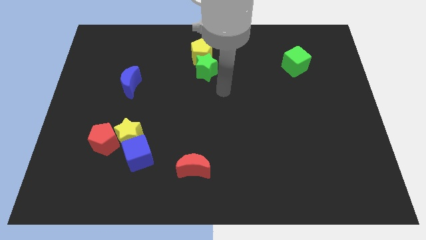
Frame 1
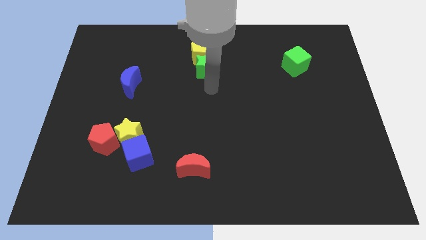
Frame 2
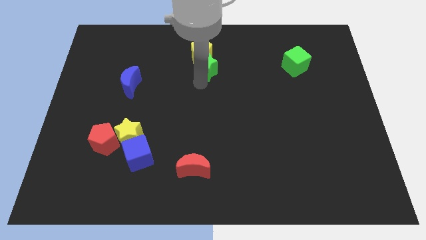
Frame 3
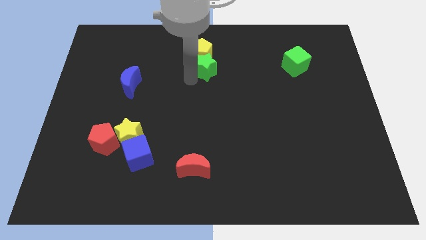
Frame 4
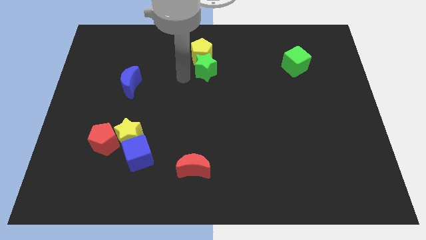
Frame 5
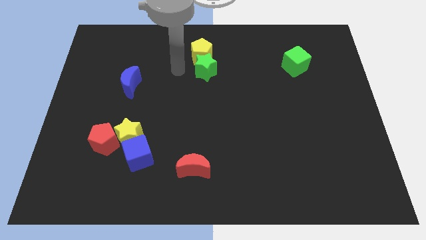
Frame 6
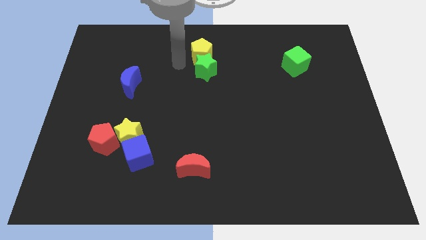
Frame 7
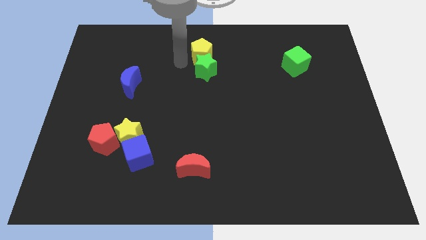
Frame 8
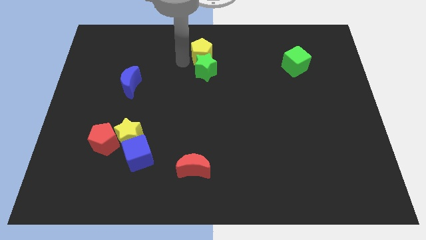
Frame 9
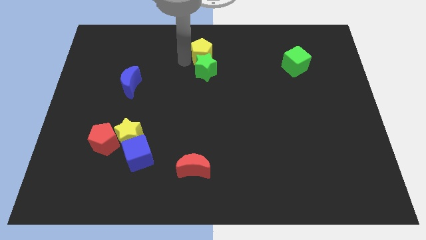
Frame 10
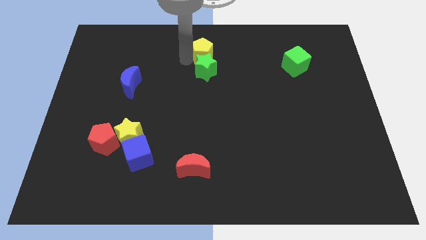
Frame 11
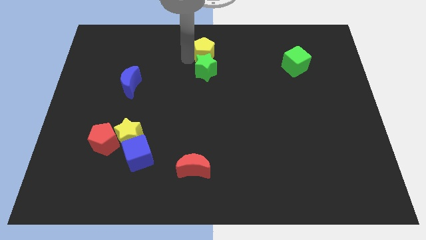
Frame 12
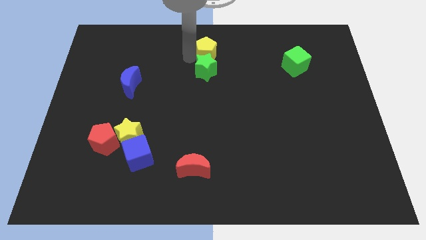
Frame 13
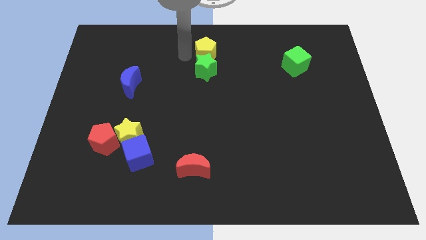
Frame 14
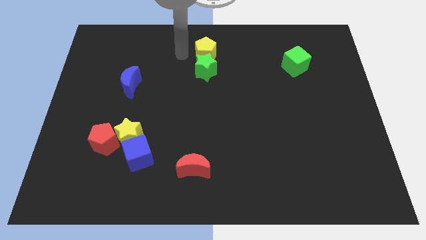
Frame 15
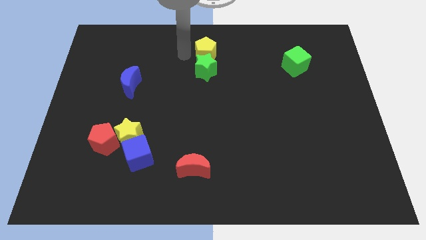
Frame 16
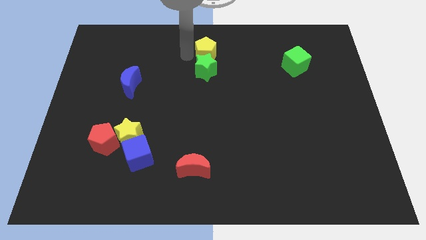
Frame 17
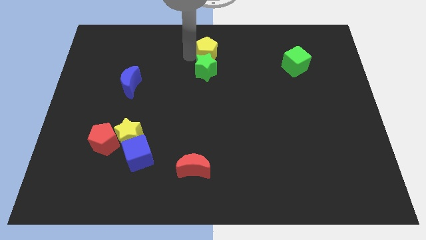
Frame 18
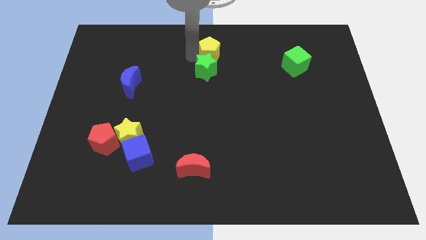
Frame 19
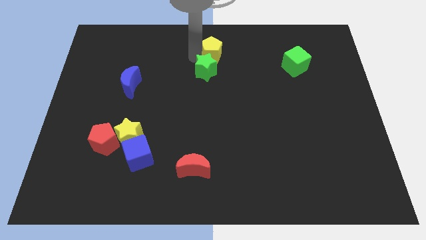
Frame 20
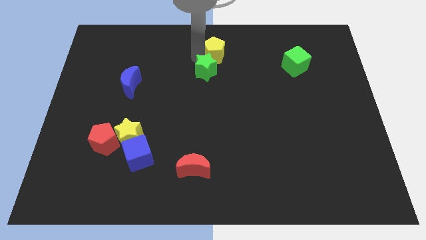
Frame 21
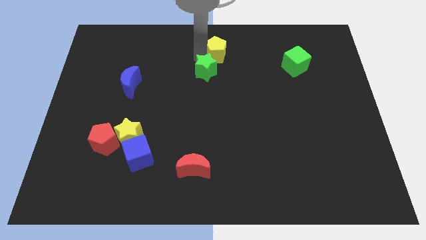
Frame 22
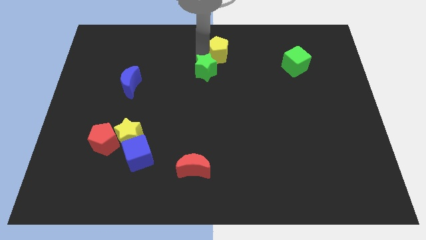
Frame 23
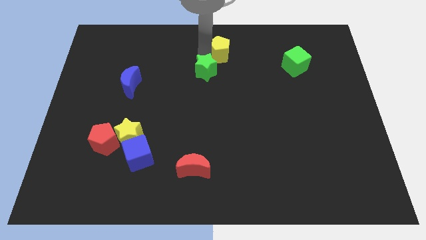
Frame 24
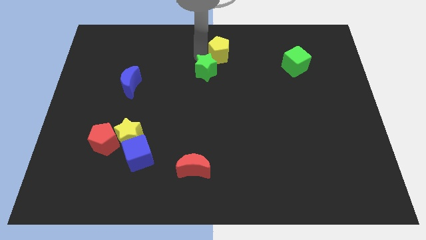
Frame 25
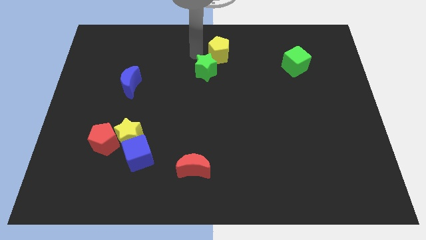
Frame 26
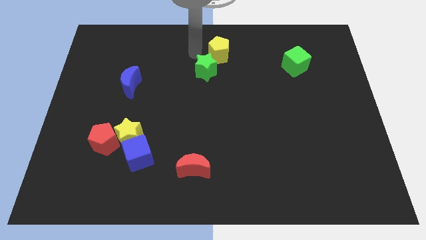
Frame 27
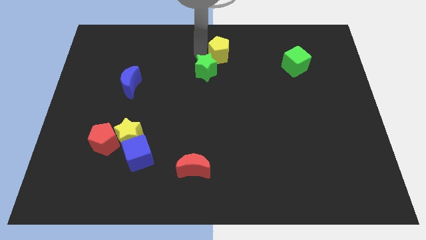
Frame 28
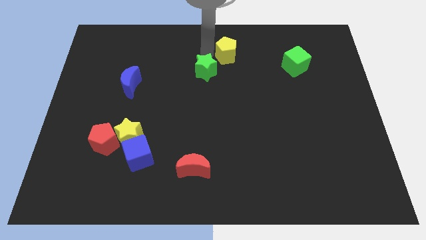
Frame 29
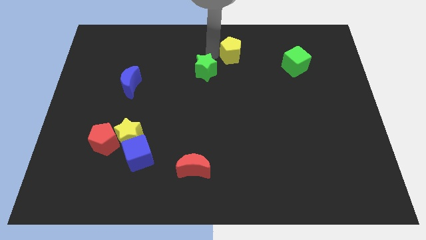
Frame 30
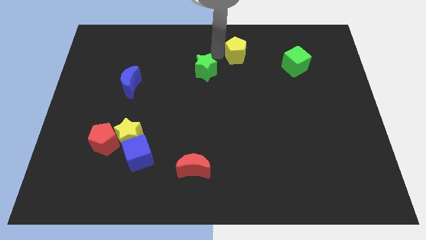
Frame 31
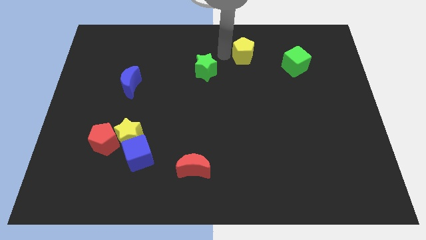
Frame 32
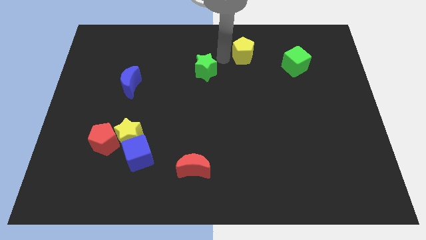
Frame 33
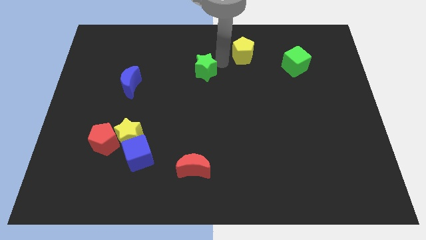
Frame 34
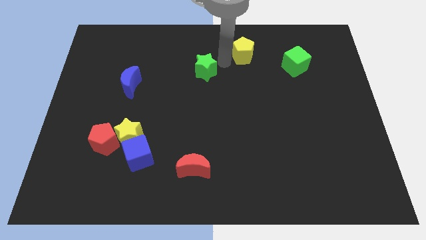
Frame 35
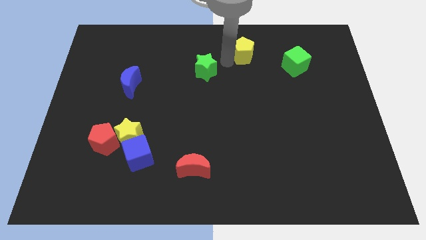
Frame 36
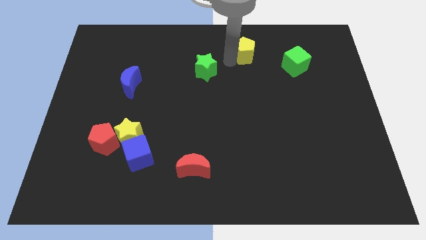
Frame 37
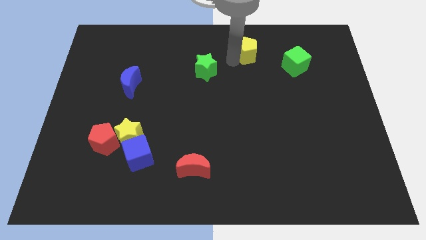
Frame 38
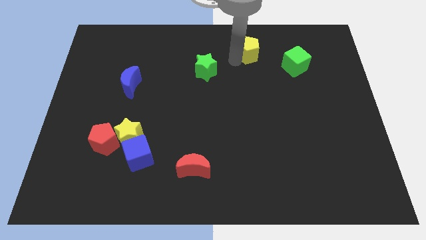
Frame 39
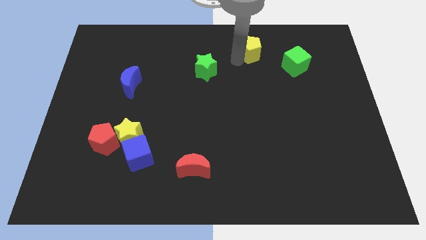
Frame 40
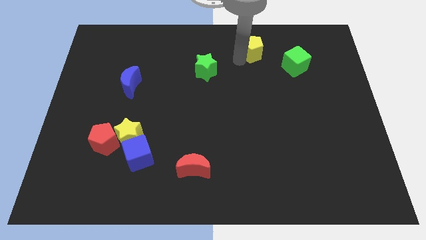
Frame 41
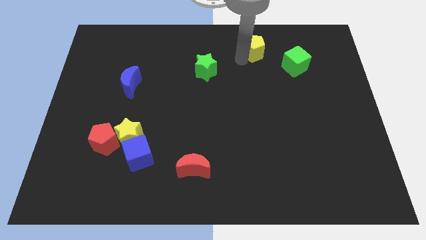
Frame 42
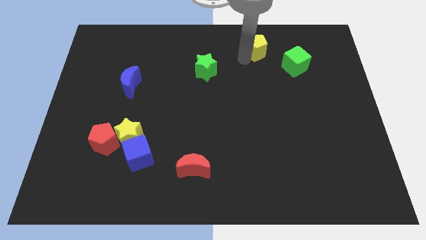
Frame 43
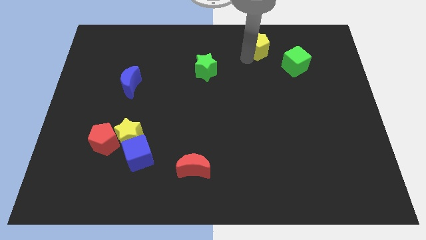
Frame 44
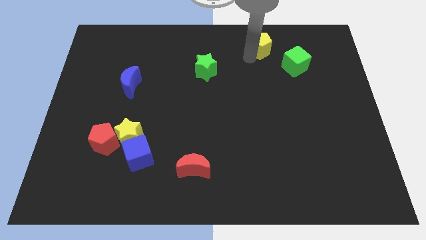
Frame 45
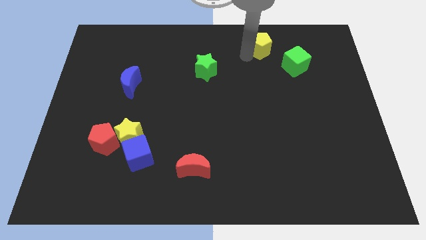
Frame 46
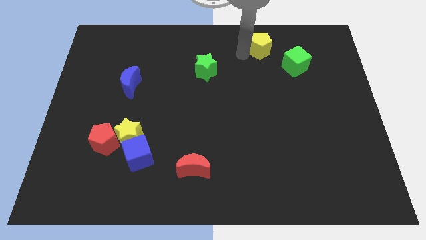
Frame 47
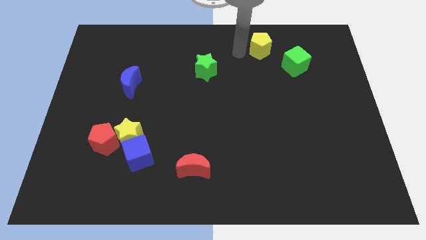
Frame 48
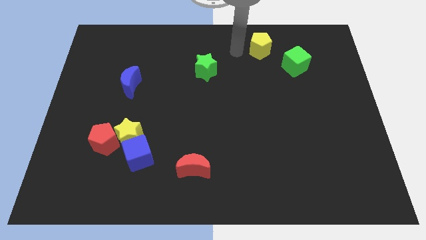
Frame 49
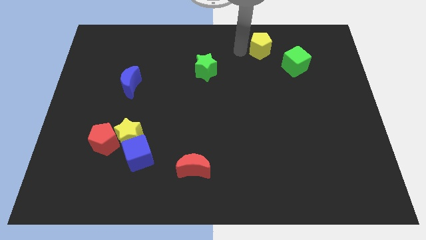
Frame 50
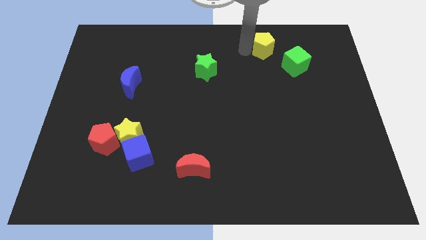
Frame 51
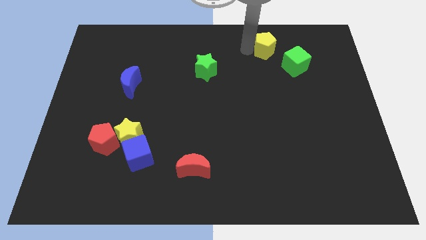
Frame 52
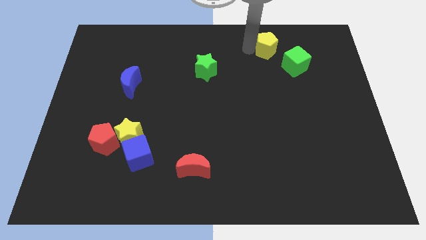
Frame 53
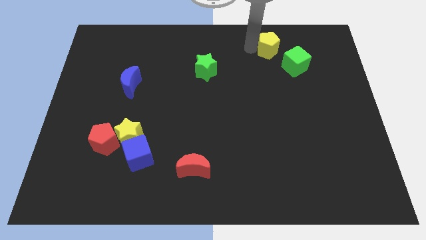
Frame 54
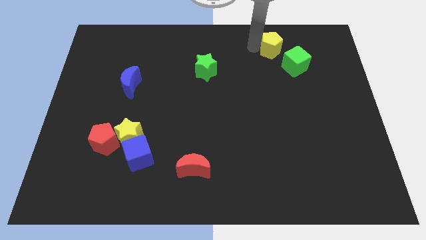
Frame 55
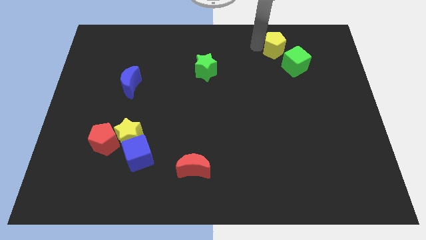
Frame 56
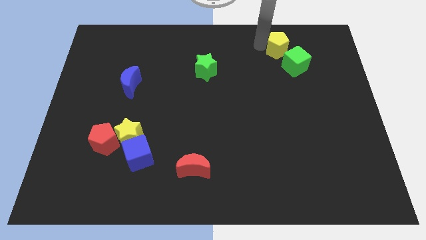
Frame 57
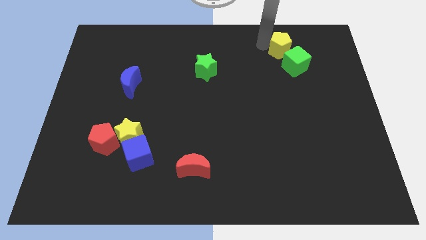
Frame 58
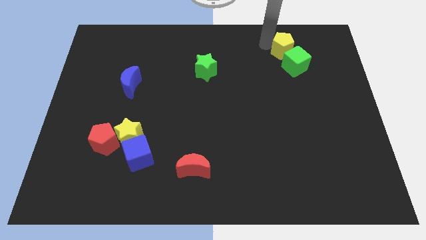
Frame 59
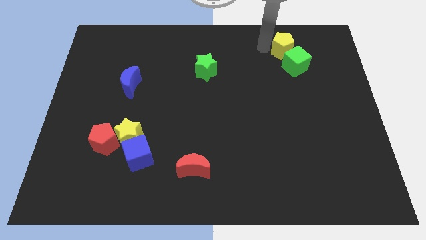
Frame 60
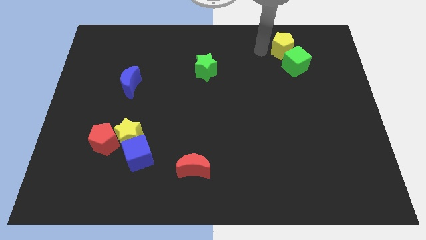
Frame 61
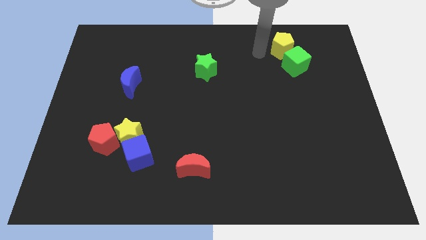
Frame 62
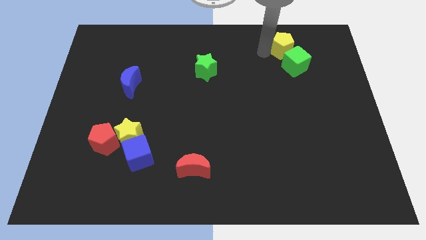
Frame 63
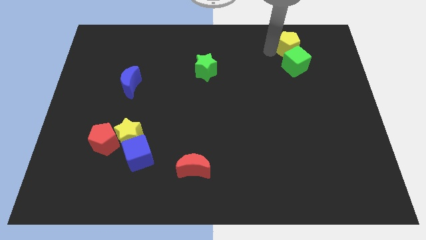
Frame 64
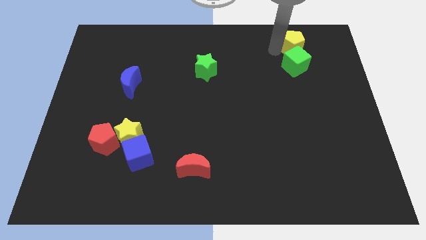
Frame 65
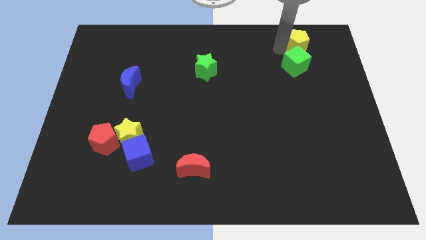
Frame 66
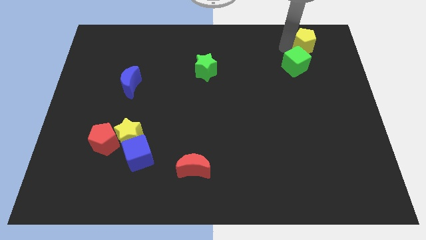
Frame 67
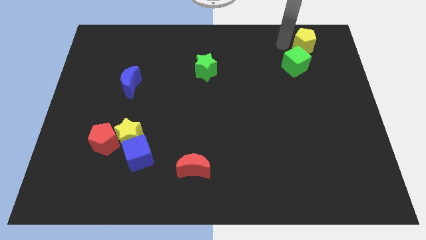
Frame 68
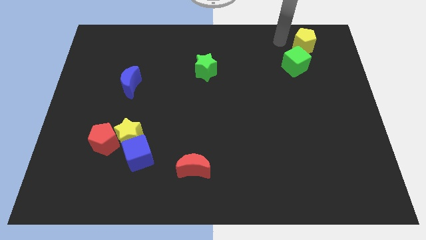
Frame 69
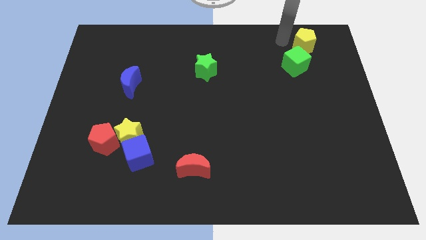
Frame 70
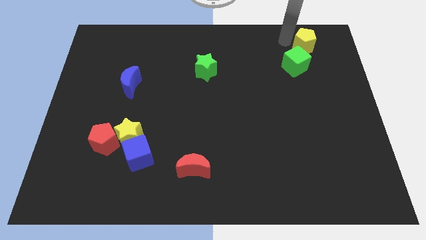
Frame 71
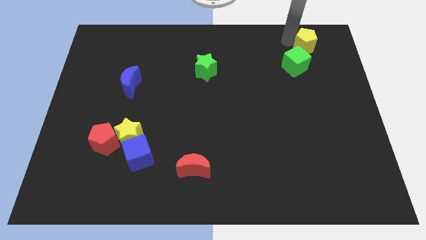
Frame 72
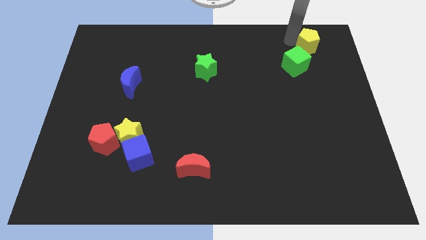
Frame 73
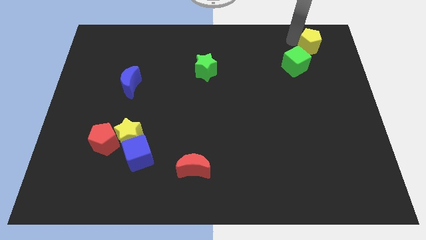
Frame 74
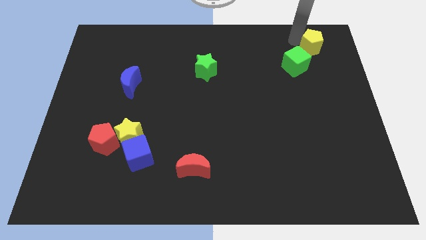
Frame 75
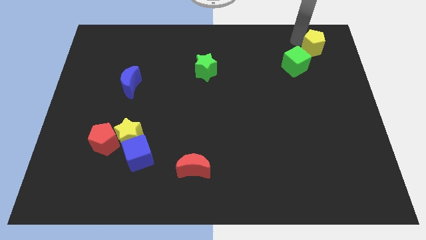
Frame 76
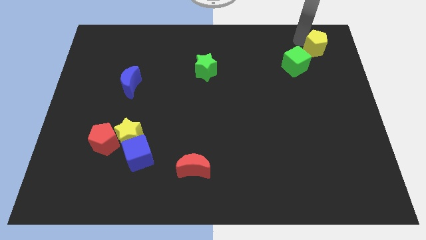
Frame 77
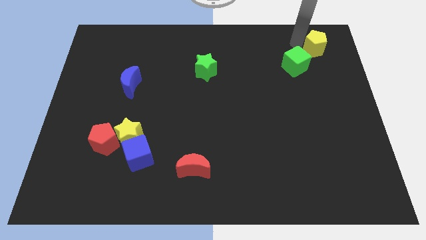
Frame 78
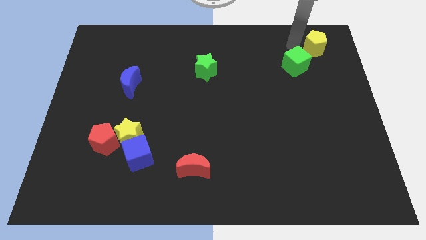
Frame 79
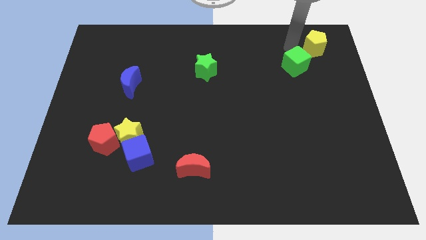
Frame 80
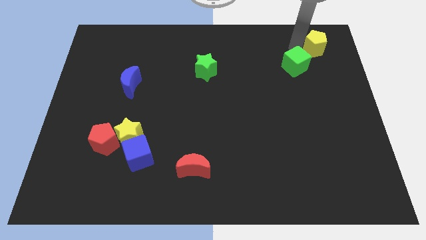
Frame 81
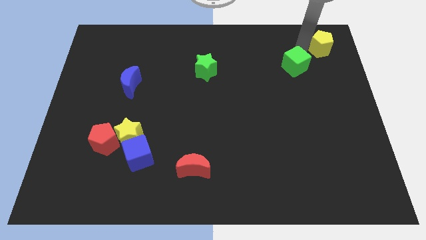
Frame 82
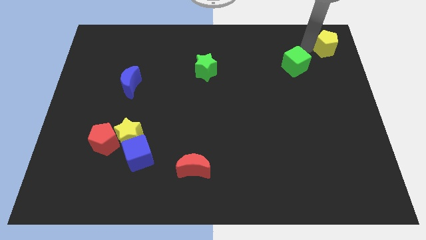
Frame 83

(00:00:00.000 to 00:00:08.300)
move the yellow pentagon to the top right corner
